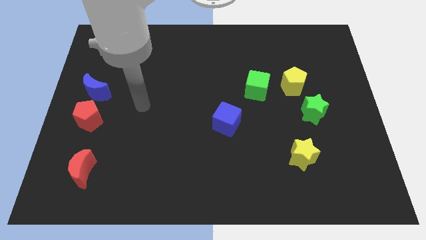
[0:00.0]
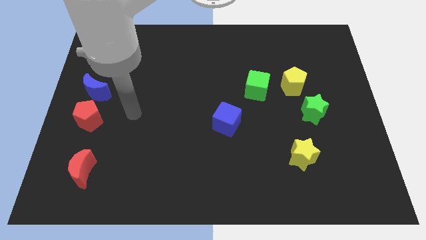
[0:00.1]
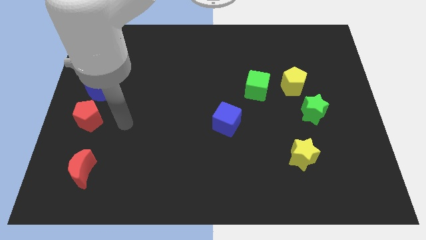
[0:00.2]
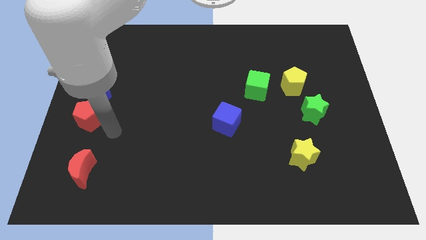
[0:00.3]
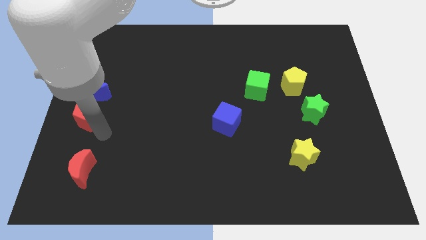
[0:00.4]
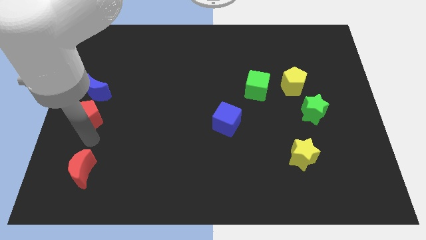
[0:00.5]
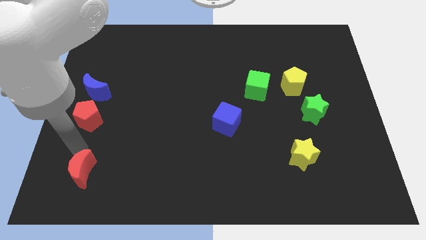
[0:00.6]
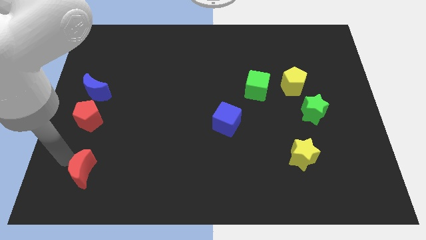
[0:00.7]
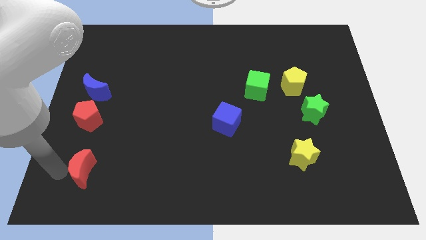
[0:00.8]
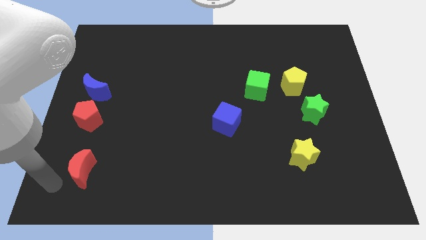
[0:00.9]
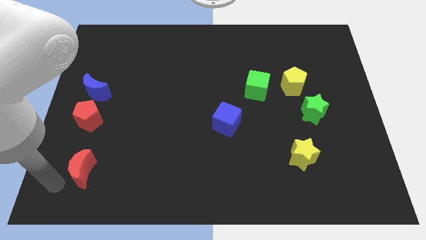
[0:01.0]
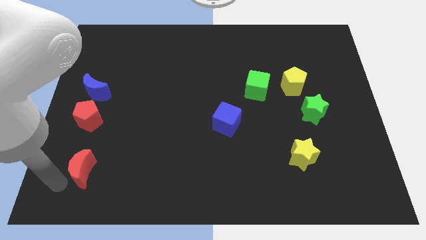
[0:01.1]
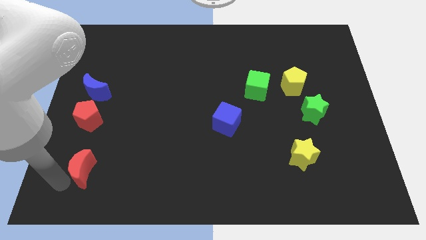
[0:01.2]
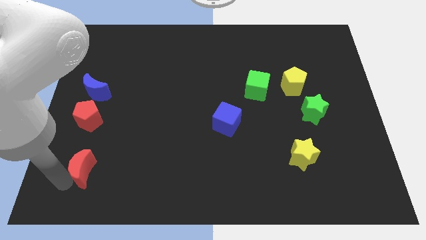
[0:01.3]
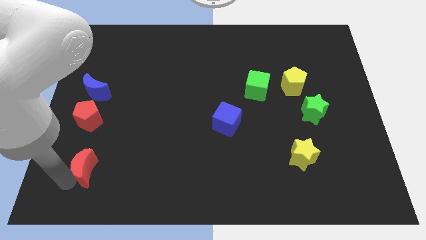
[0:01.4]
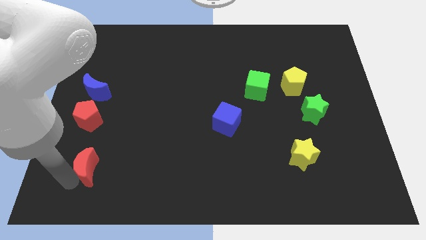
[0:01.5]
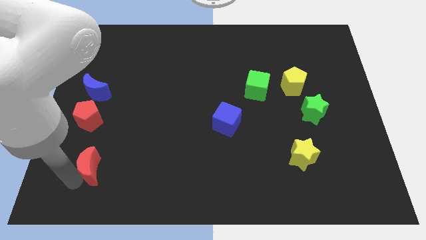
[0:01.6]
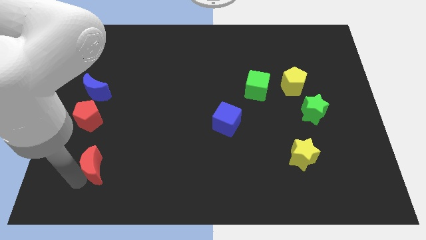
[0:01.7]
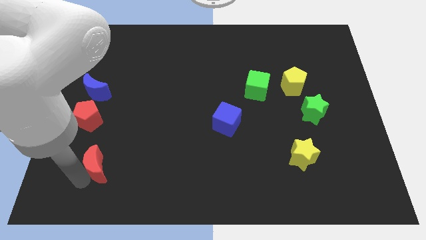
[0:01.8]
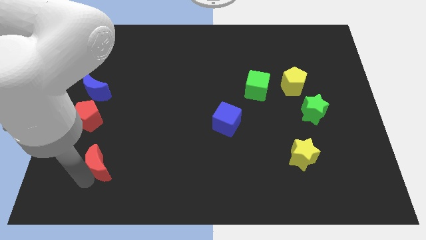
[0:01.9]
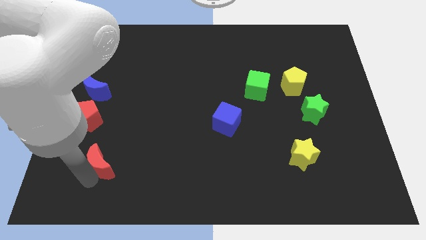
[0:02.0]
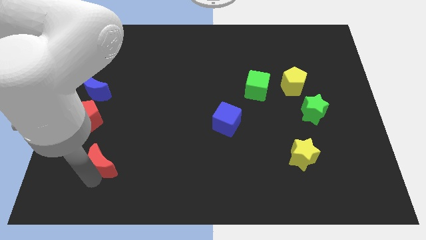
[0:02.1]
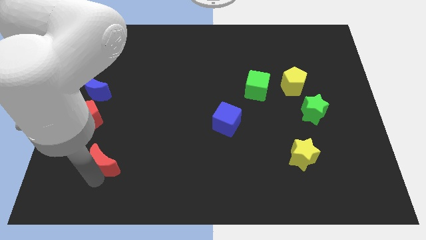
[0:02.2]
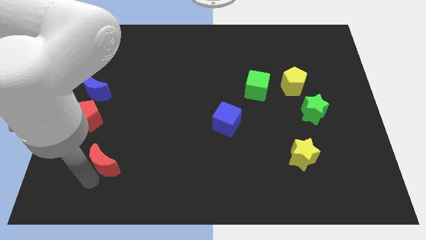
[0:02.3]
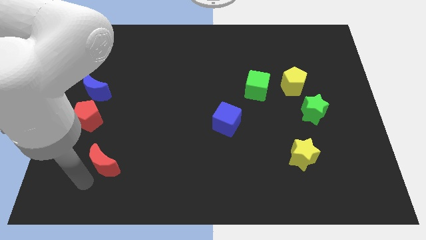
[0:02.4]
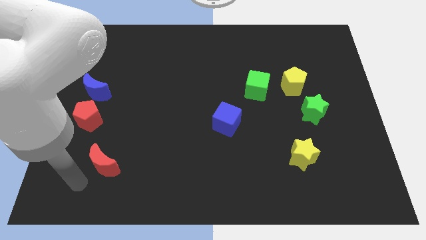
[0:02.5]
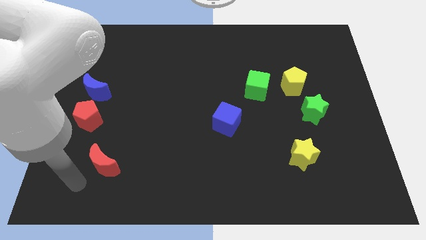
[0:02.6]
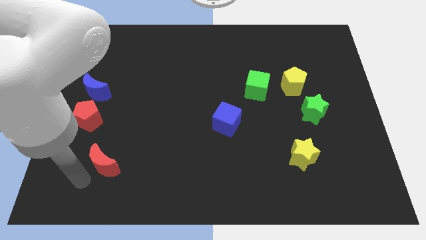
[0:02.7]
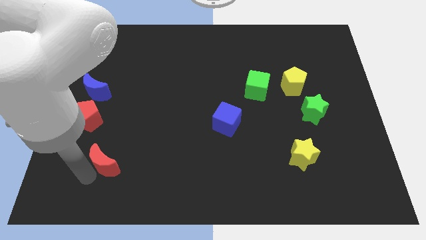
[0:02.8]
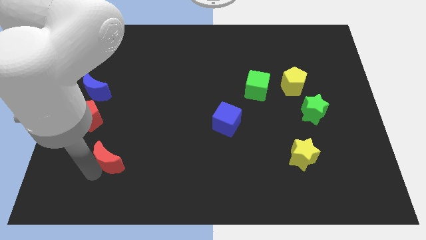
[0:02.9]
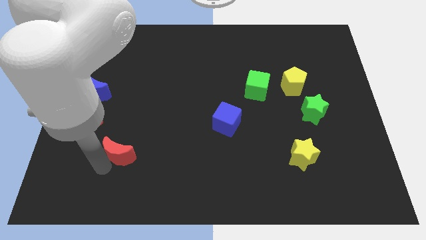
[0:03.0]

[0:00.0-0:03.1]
move the red moon upwards and to the right diagonally a bit

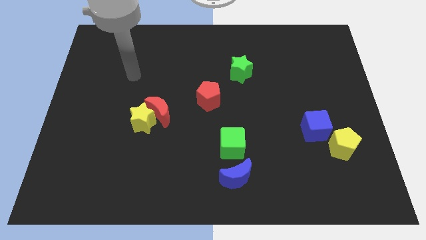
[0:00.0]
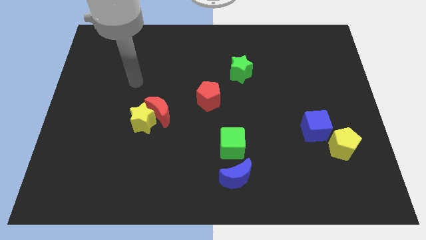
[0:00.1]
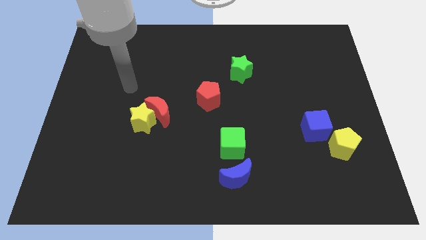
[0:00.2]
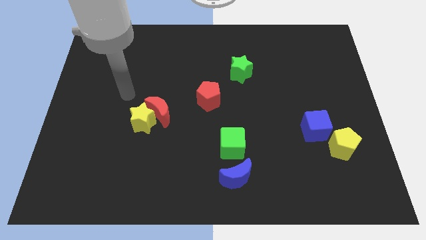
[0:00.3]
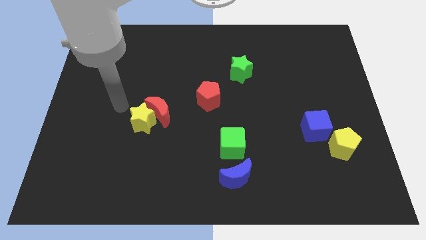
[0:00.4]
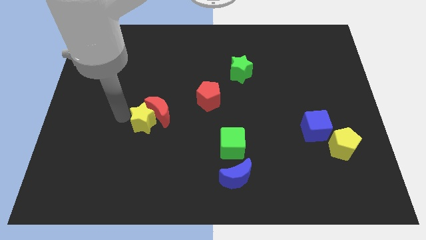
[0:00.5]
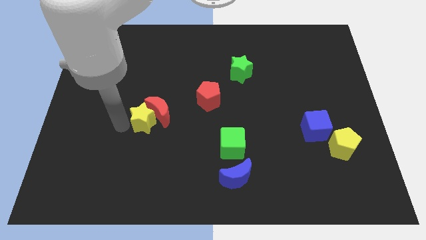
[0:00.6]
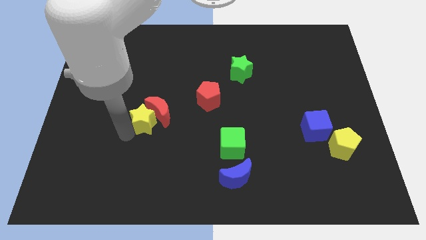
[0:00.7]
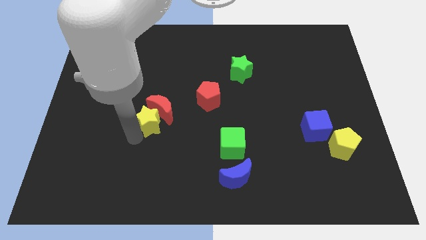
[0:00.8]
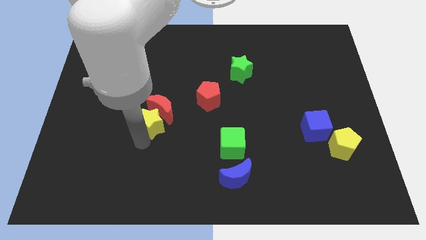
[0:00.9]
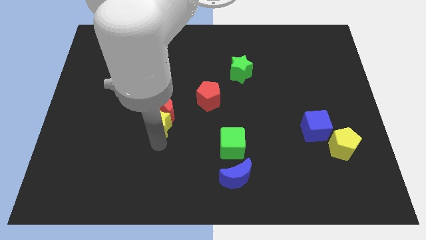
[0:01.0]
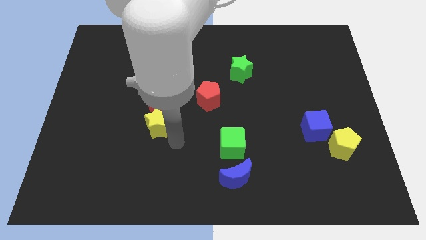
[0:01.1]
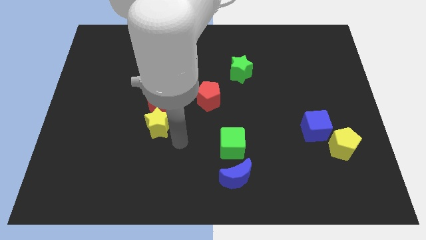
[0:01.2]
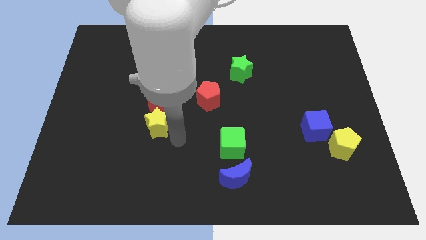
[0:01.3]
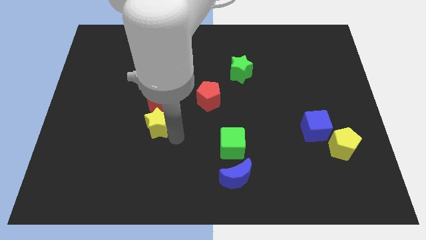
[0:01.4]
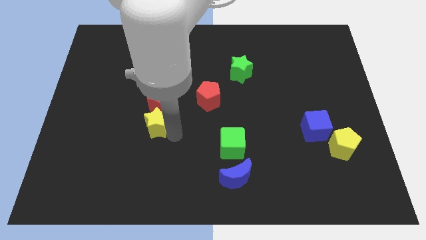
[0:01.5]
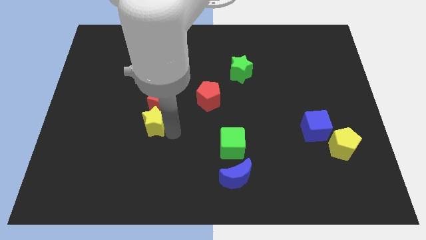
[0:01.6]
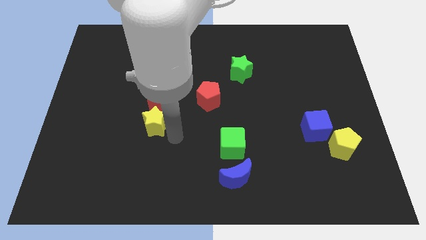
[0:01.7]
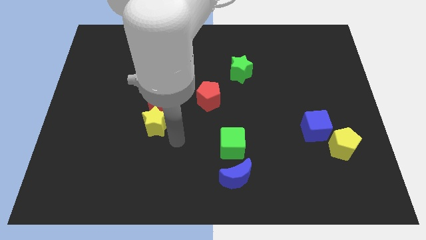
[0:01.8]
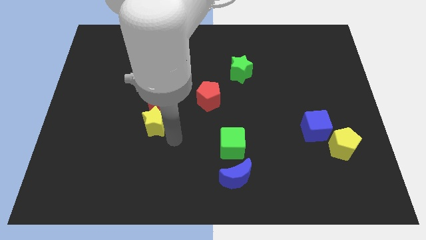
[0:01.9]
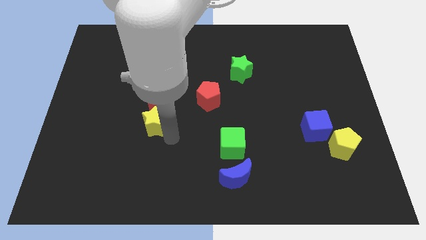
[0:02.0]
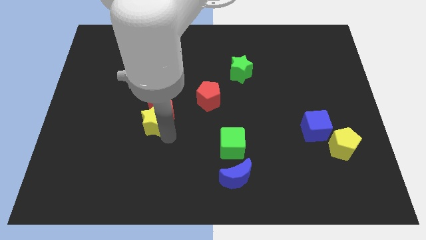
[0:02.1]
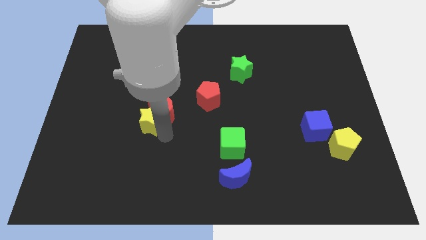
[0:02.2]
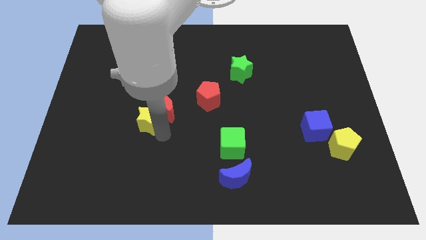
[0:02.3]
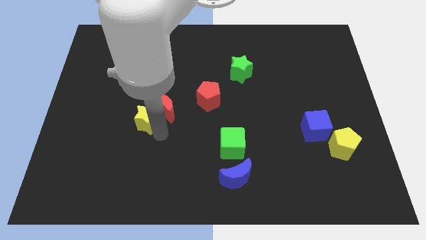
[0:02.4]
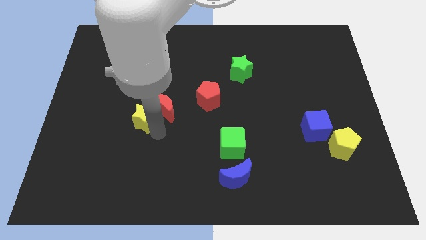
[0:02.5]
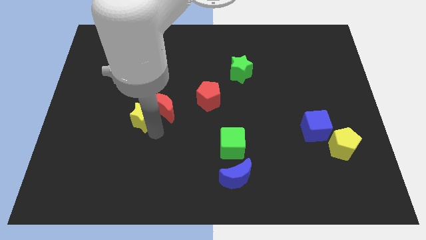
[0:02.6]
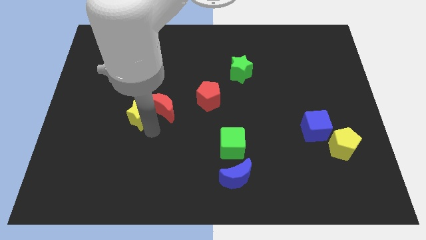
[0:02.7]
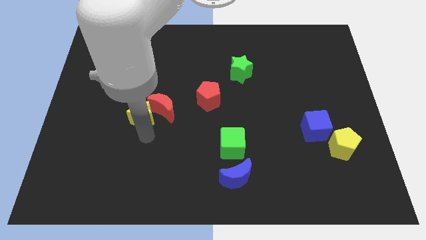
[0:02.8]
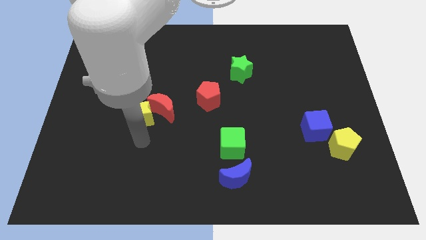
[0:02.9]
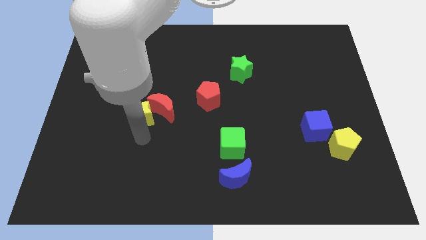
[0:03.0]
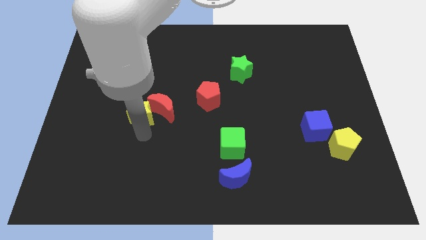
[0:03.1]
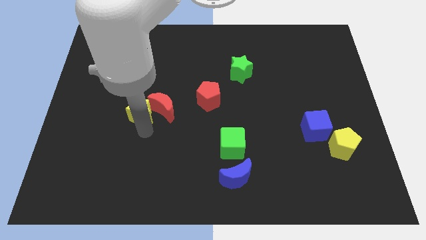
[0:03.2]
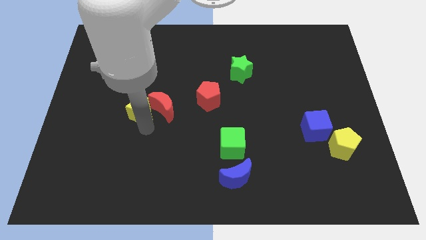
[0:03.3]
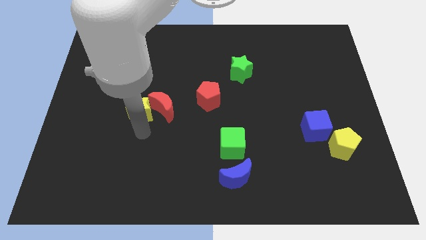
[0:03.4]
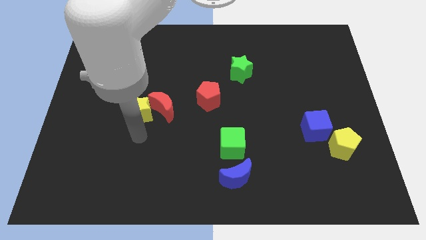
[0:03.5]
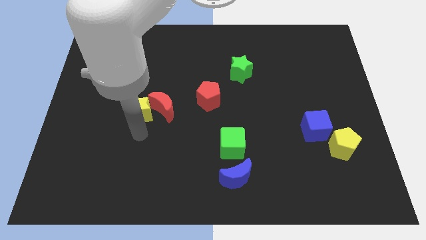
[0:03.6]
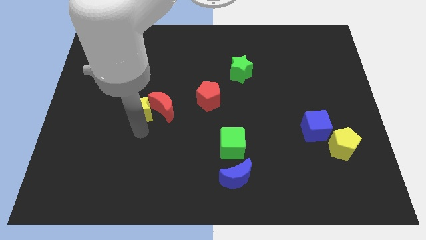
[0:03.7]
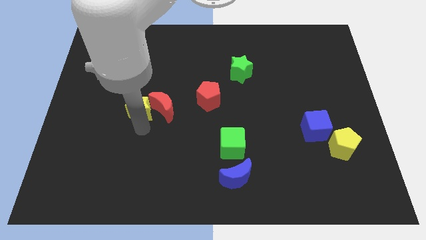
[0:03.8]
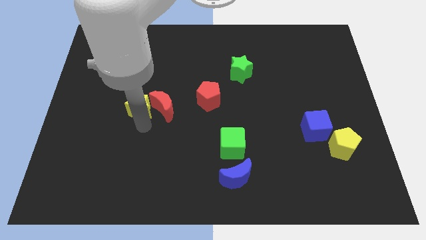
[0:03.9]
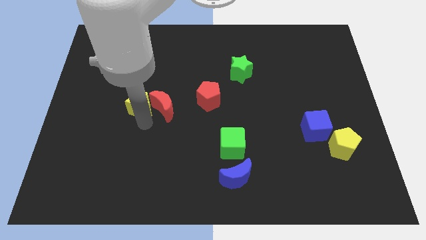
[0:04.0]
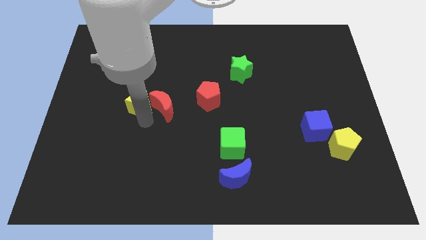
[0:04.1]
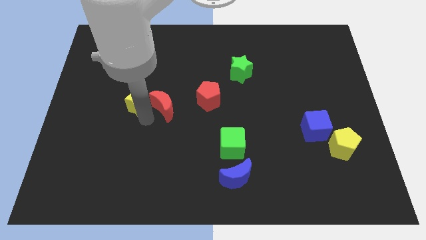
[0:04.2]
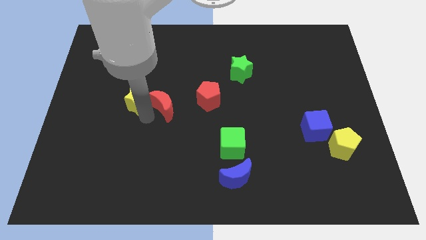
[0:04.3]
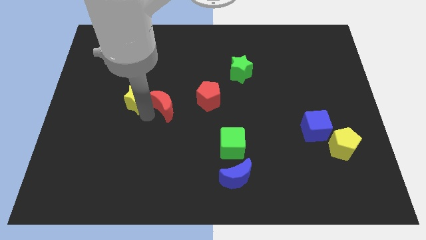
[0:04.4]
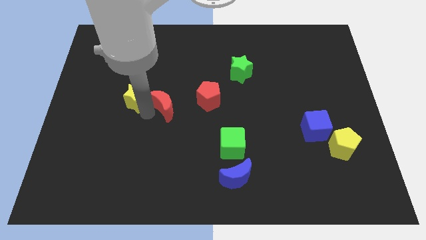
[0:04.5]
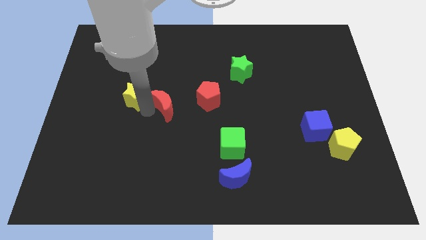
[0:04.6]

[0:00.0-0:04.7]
slightly slide the yellow star upwards

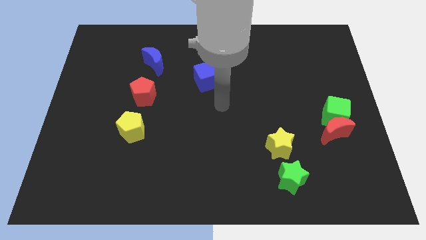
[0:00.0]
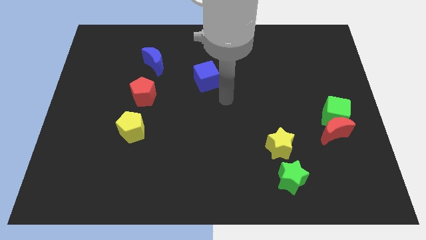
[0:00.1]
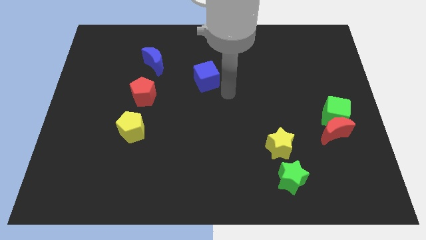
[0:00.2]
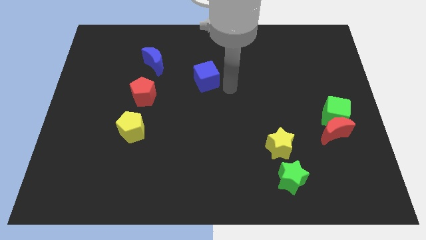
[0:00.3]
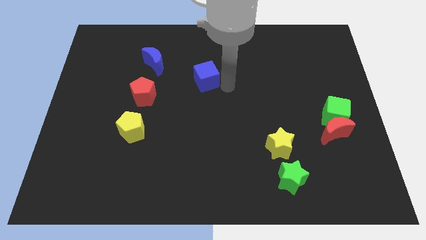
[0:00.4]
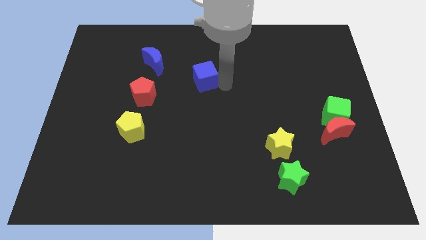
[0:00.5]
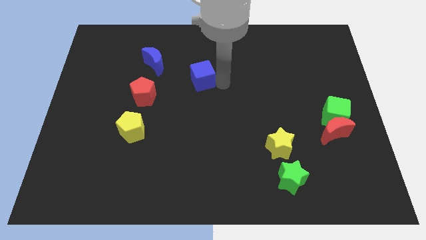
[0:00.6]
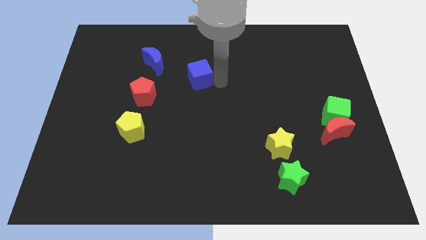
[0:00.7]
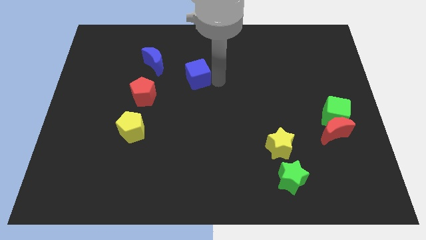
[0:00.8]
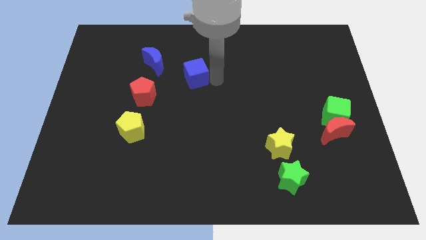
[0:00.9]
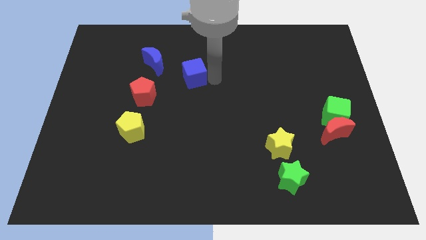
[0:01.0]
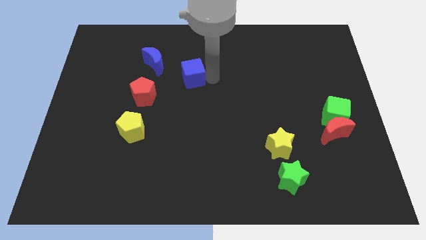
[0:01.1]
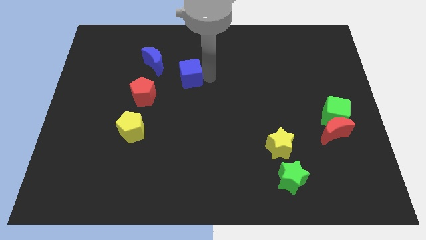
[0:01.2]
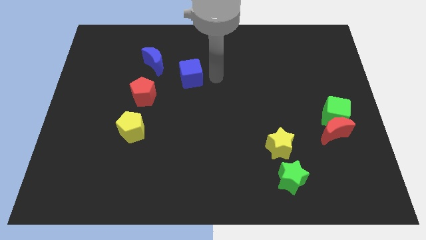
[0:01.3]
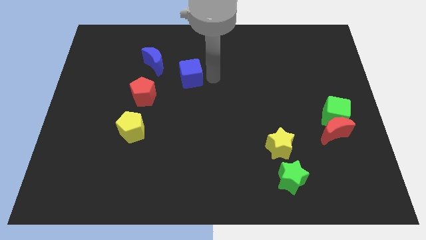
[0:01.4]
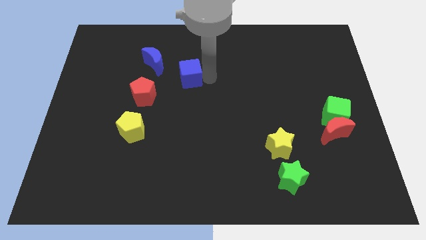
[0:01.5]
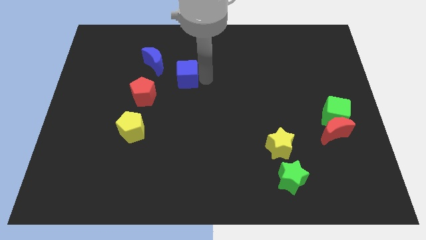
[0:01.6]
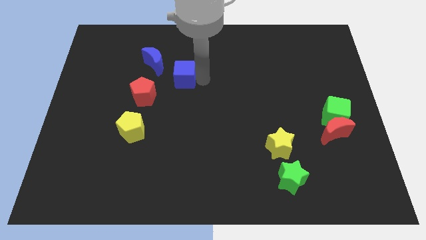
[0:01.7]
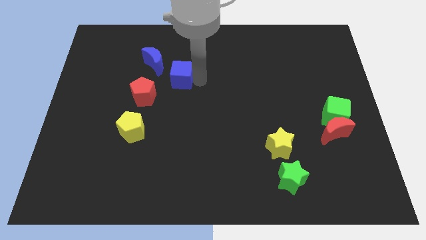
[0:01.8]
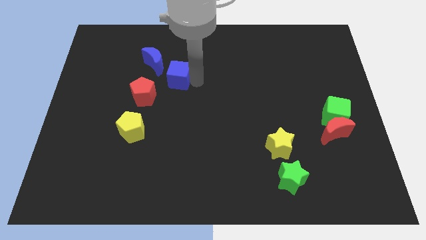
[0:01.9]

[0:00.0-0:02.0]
slightly move the blue cube to the left
